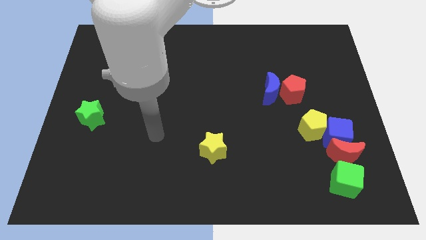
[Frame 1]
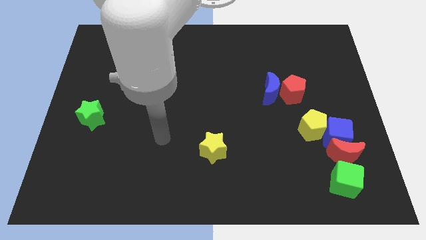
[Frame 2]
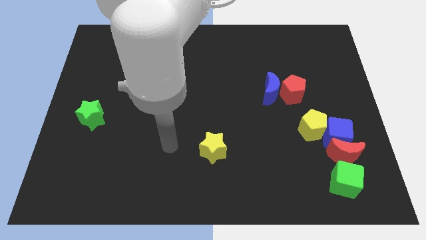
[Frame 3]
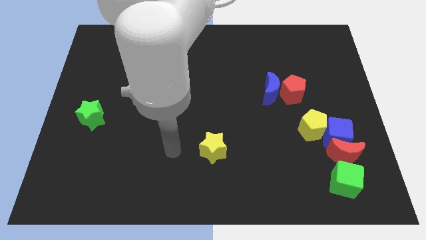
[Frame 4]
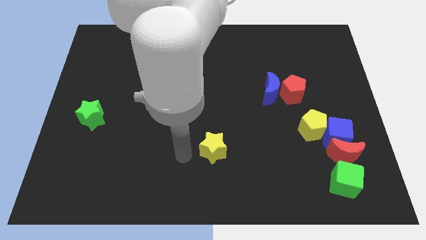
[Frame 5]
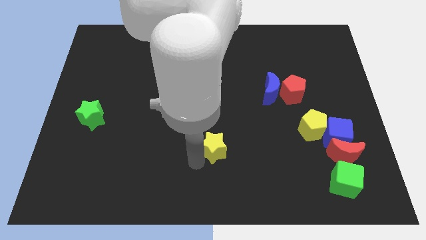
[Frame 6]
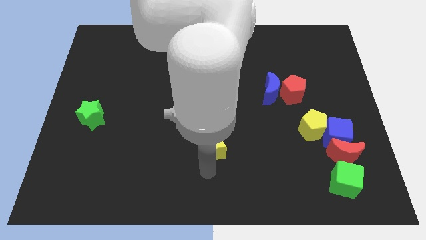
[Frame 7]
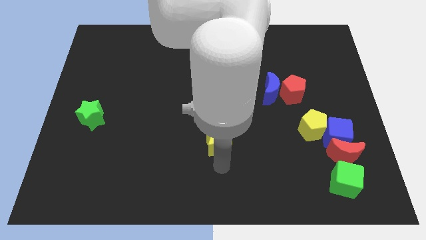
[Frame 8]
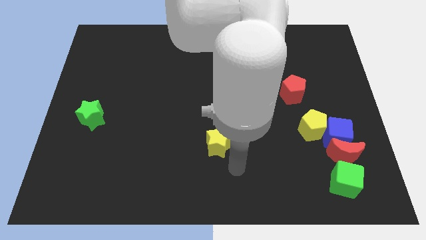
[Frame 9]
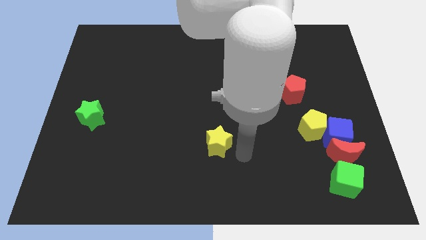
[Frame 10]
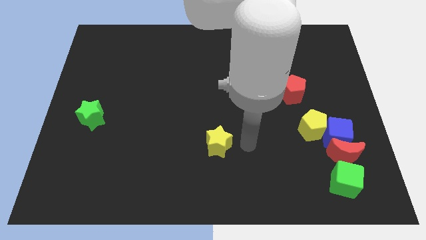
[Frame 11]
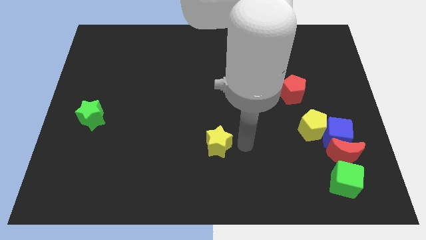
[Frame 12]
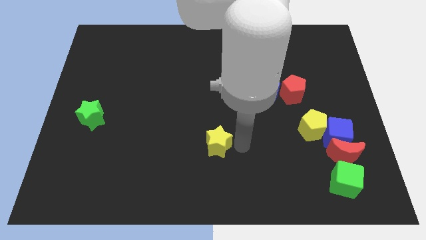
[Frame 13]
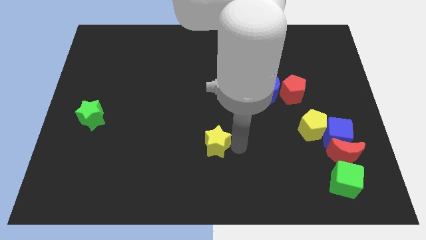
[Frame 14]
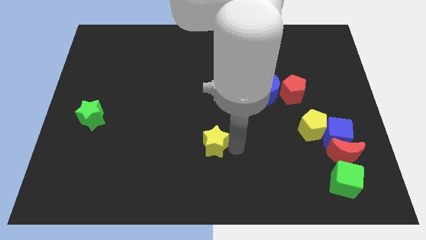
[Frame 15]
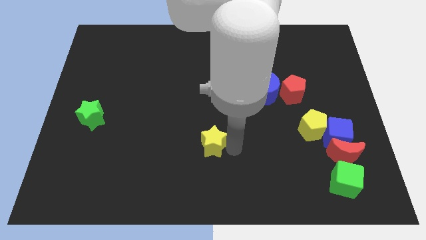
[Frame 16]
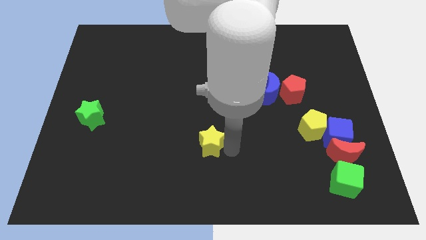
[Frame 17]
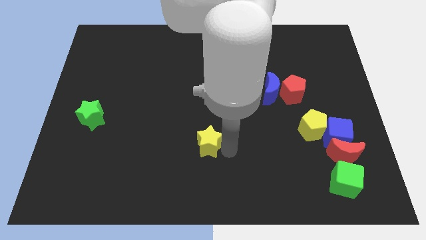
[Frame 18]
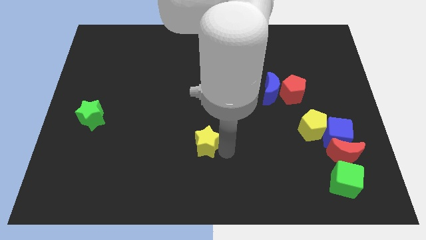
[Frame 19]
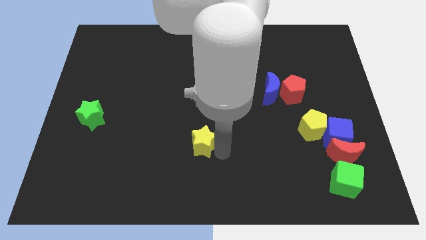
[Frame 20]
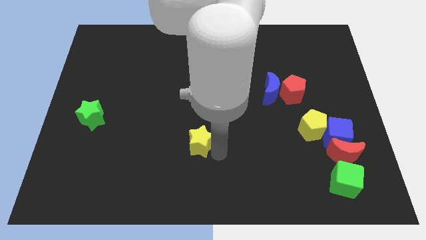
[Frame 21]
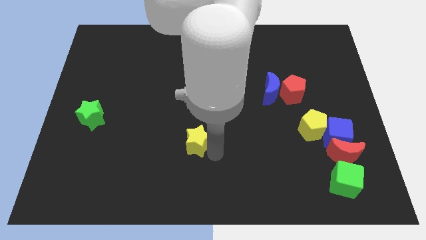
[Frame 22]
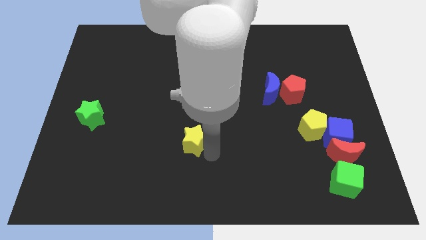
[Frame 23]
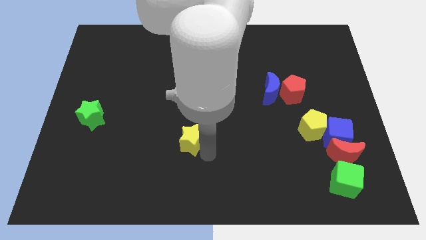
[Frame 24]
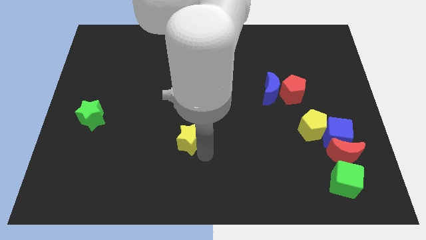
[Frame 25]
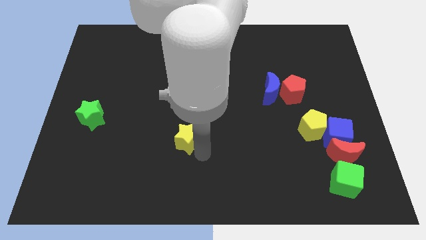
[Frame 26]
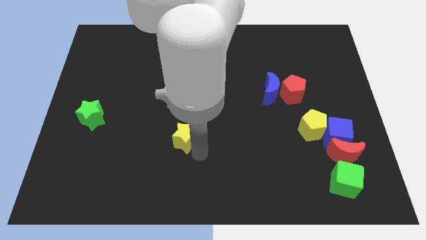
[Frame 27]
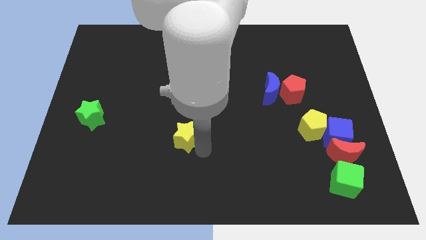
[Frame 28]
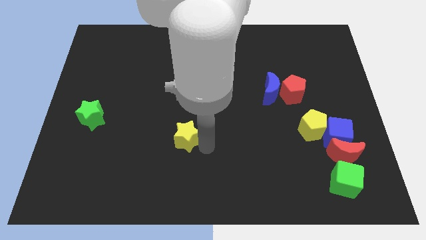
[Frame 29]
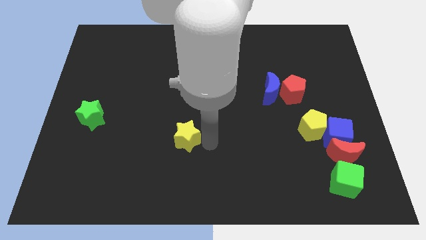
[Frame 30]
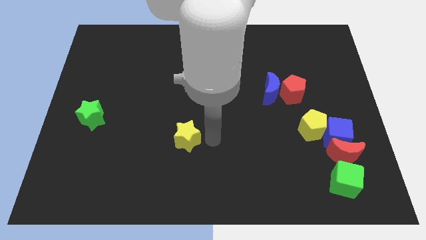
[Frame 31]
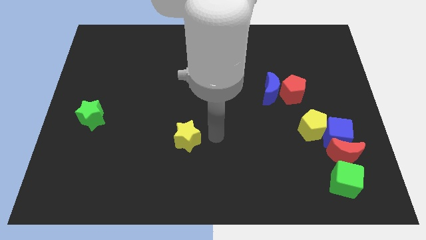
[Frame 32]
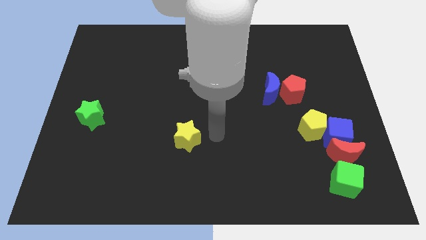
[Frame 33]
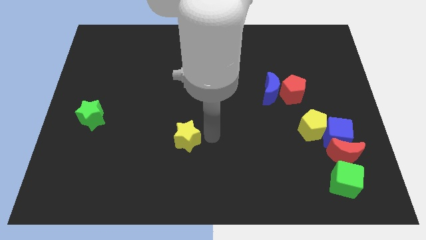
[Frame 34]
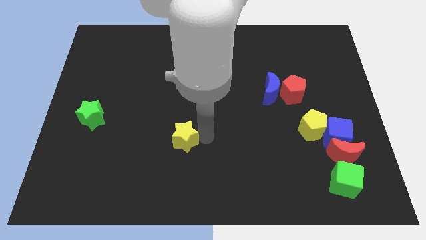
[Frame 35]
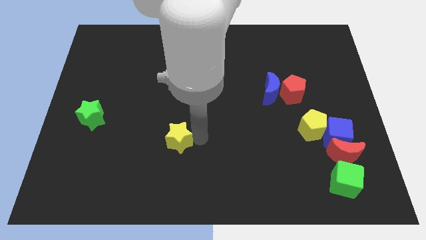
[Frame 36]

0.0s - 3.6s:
slide the yellow star a little to the left

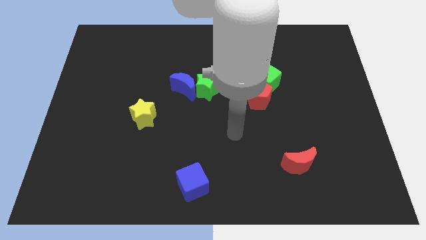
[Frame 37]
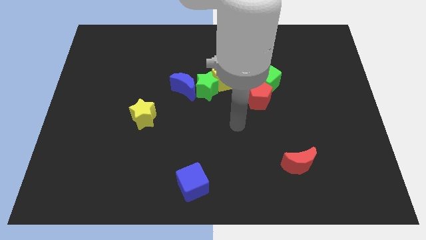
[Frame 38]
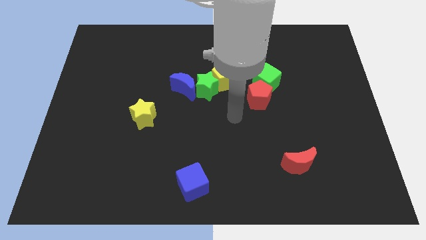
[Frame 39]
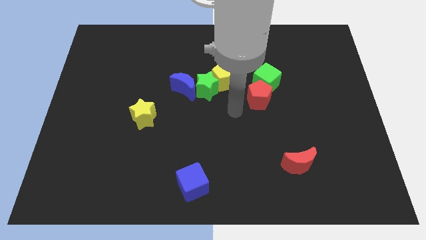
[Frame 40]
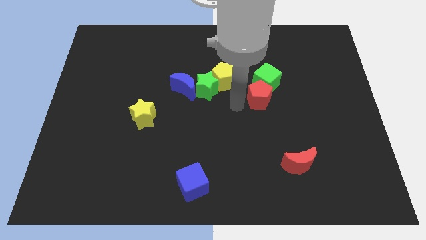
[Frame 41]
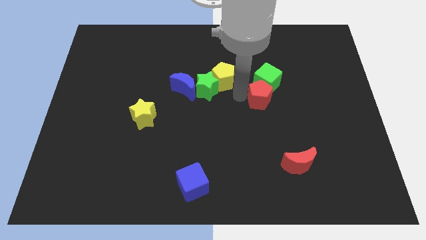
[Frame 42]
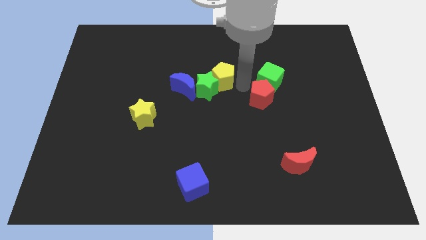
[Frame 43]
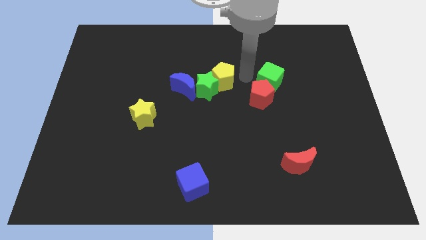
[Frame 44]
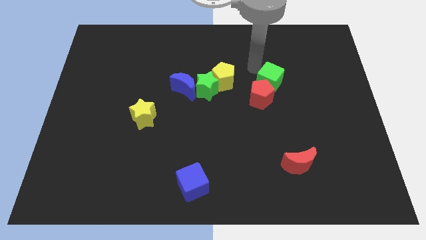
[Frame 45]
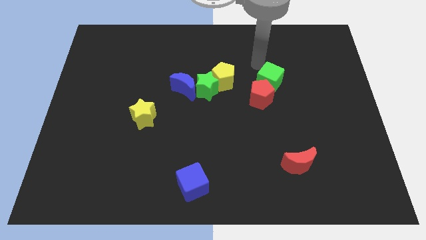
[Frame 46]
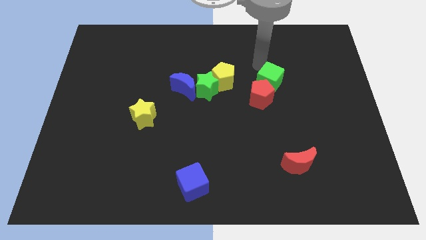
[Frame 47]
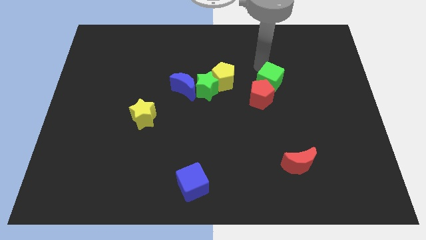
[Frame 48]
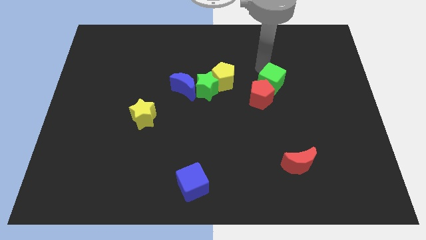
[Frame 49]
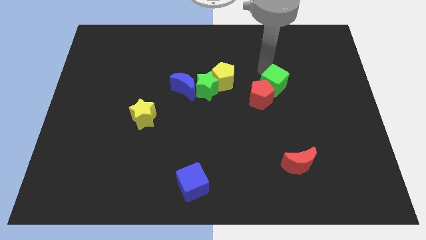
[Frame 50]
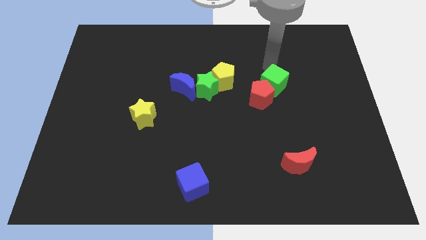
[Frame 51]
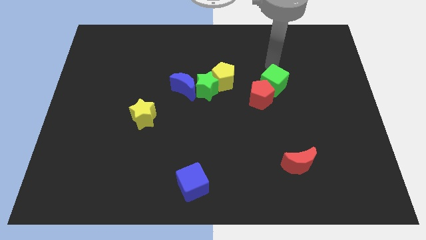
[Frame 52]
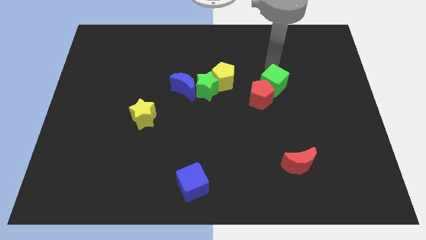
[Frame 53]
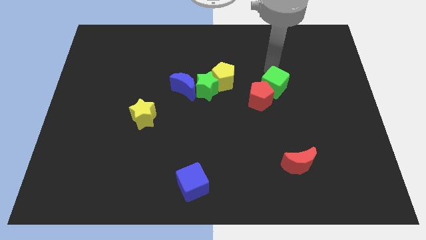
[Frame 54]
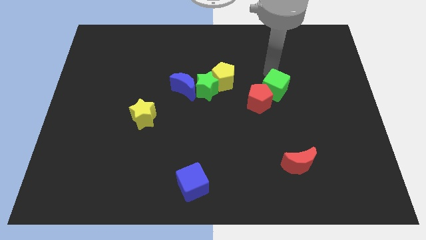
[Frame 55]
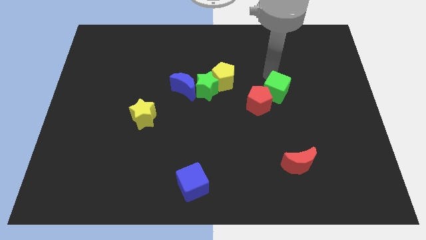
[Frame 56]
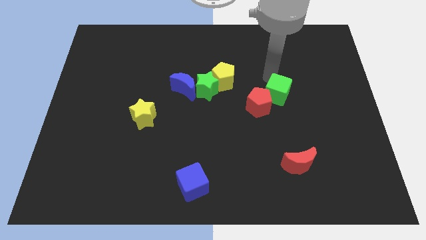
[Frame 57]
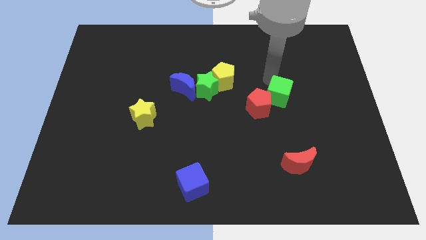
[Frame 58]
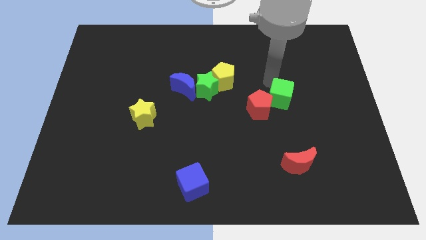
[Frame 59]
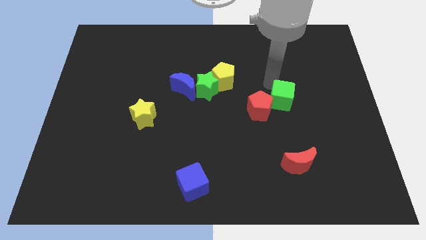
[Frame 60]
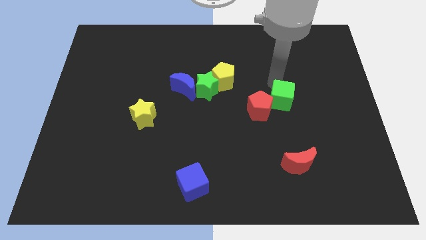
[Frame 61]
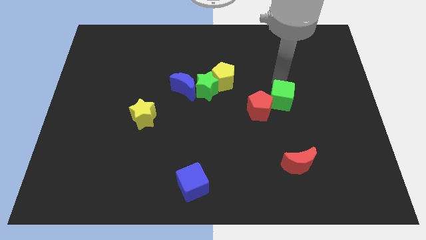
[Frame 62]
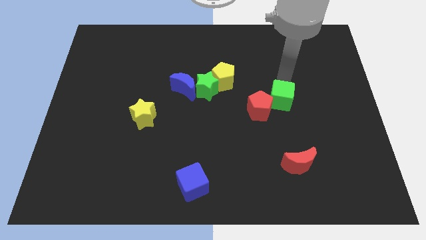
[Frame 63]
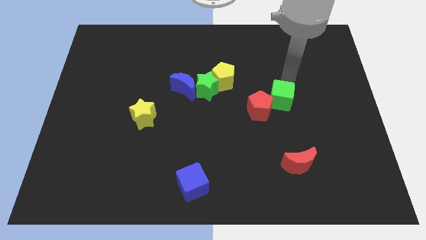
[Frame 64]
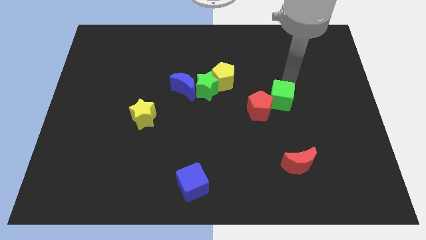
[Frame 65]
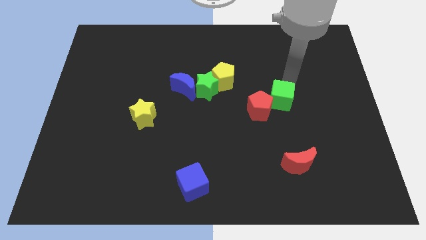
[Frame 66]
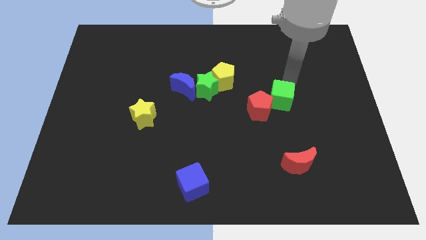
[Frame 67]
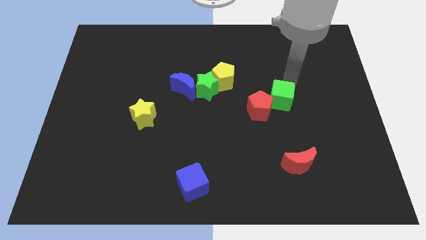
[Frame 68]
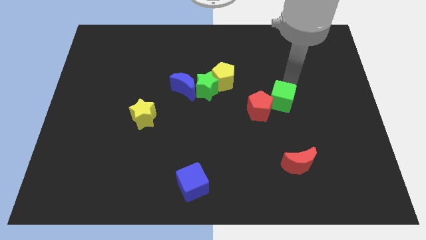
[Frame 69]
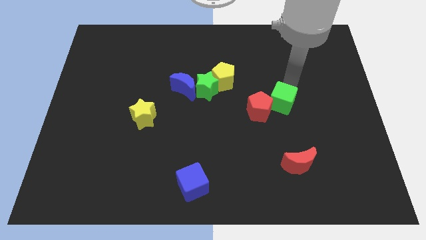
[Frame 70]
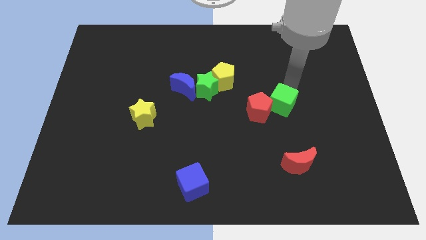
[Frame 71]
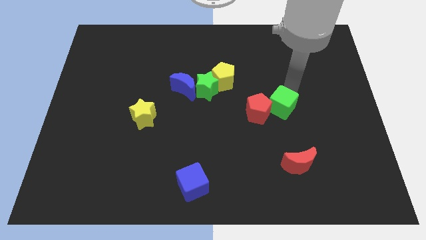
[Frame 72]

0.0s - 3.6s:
push the green cube a bit downwards

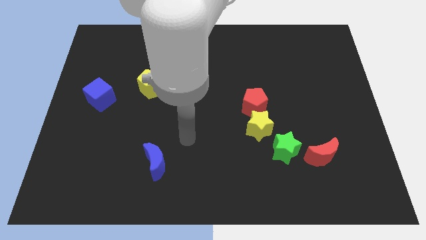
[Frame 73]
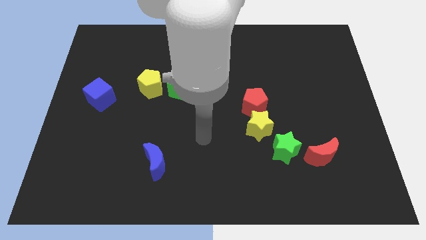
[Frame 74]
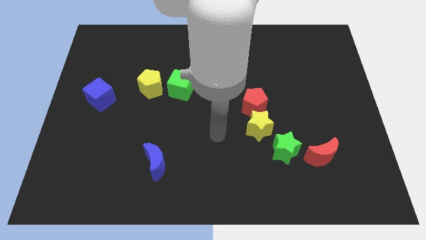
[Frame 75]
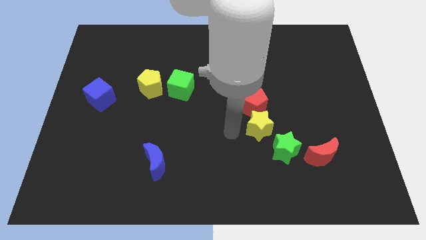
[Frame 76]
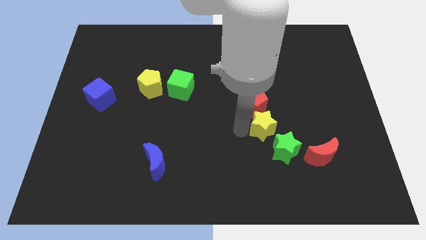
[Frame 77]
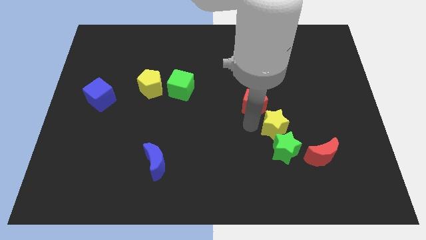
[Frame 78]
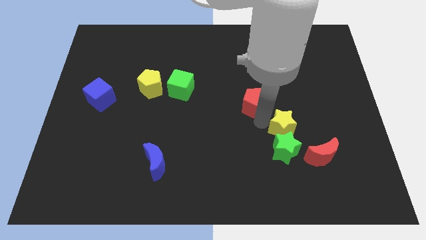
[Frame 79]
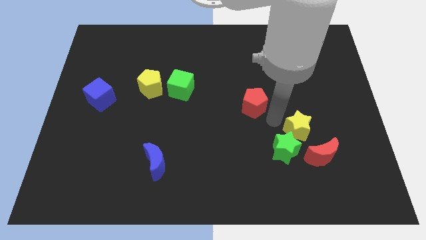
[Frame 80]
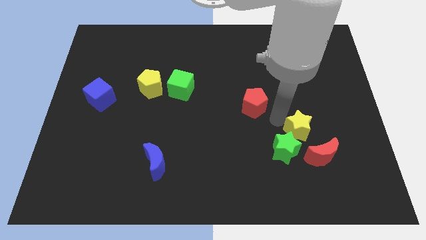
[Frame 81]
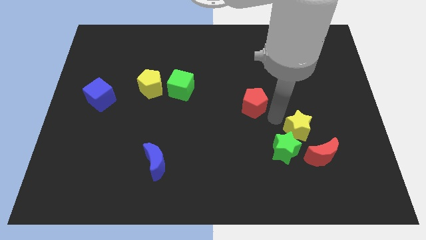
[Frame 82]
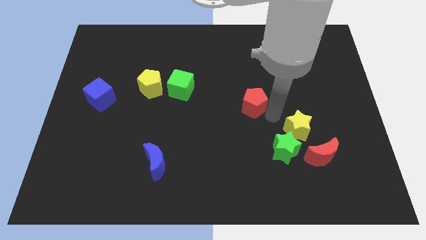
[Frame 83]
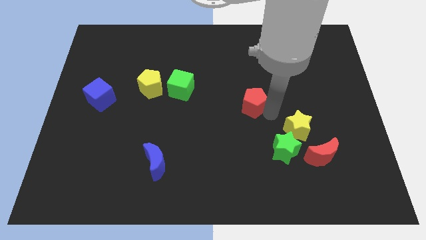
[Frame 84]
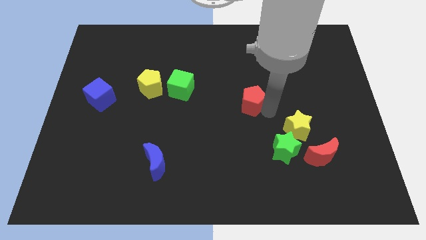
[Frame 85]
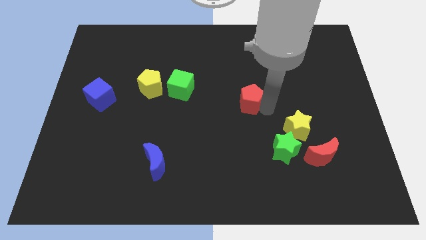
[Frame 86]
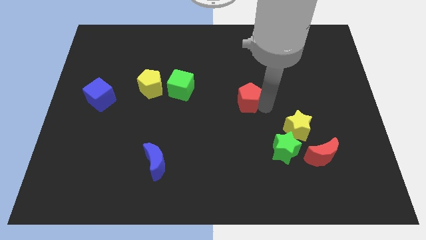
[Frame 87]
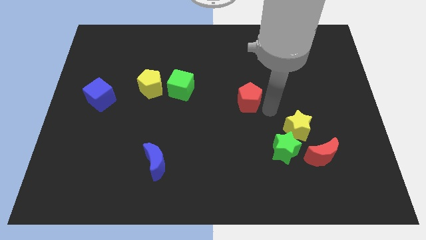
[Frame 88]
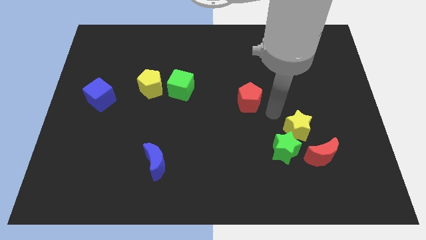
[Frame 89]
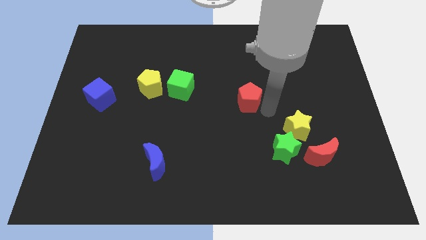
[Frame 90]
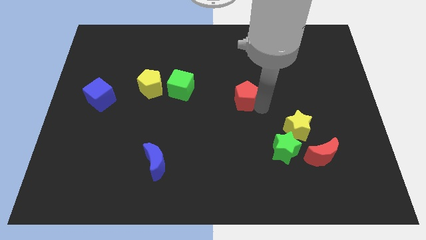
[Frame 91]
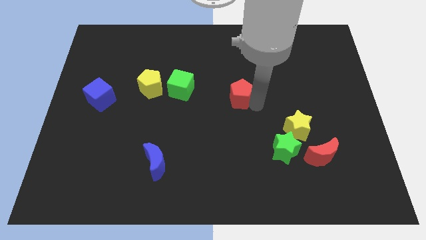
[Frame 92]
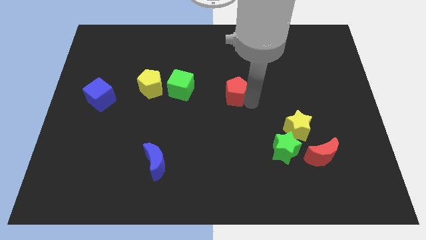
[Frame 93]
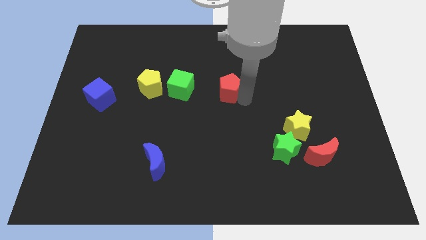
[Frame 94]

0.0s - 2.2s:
slightly push the red pentagon up and to the left diagonally
